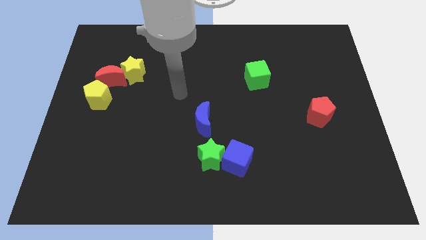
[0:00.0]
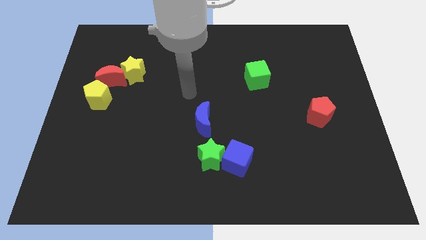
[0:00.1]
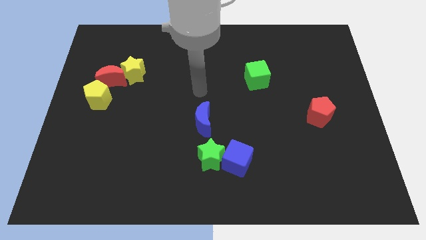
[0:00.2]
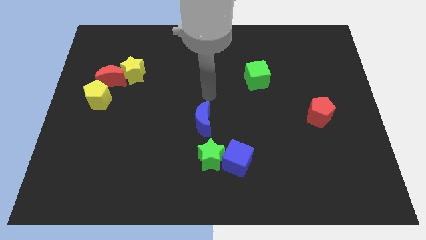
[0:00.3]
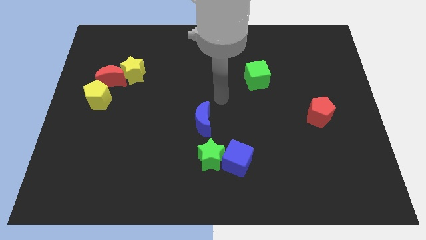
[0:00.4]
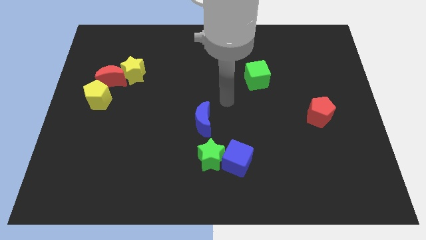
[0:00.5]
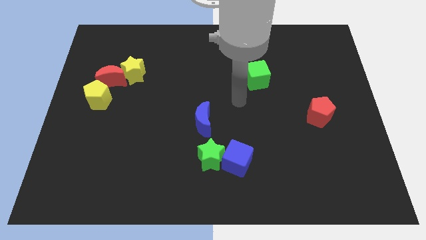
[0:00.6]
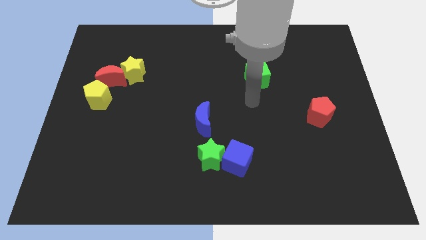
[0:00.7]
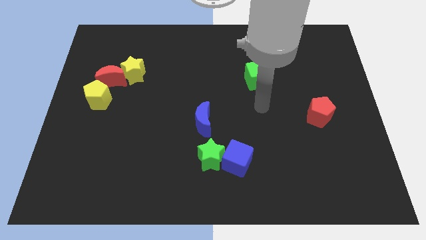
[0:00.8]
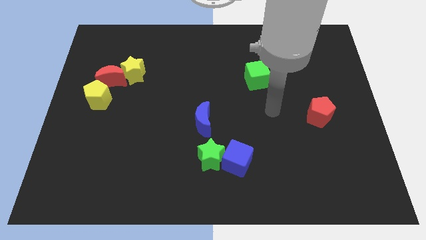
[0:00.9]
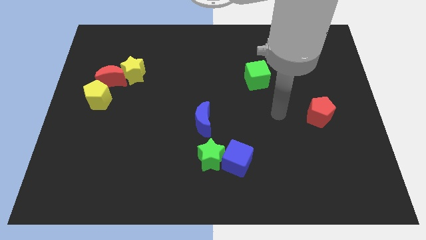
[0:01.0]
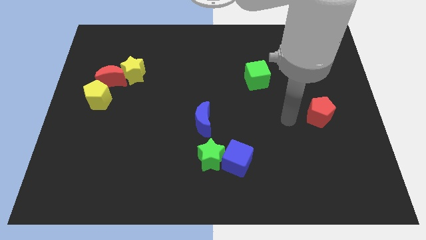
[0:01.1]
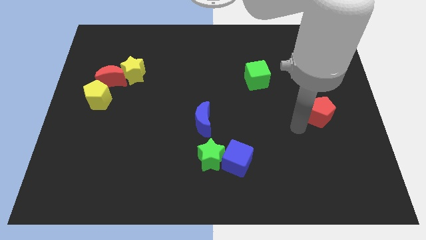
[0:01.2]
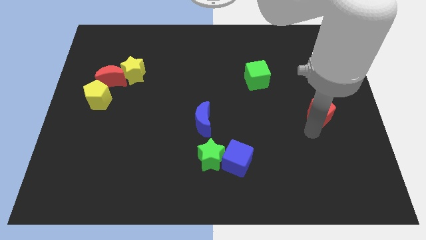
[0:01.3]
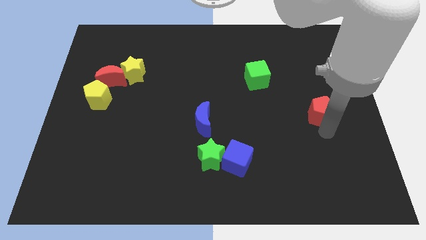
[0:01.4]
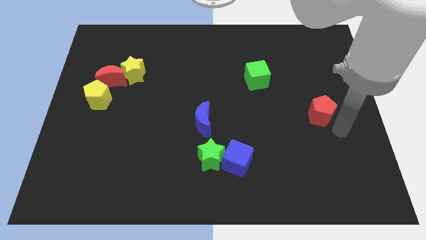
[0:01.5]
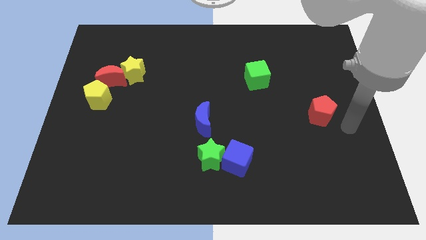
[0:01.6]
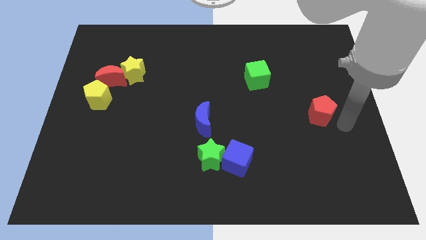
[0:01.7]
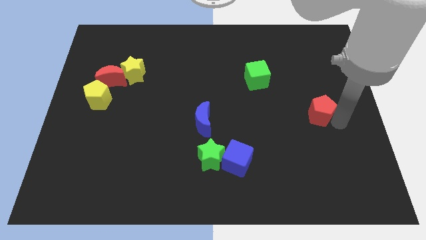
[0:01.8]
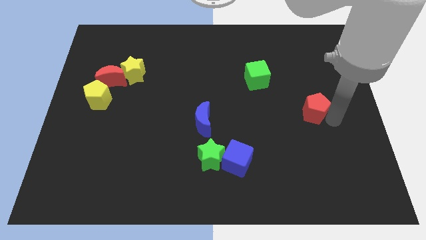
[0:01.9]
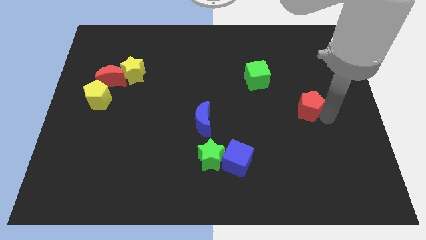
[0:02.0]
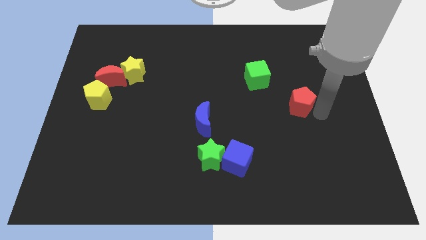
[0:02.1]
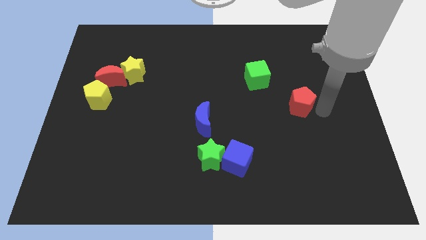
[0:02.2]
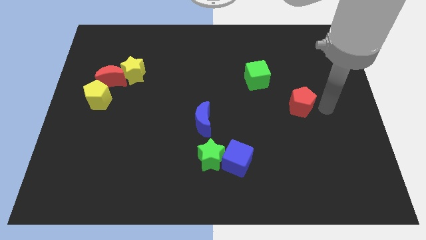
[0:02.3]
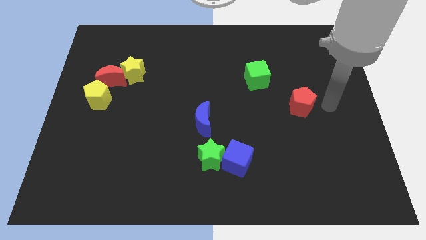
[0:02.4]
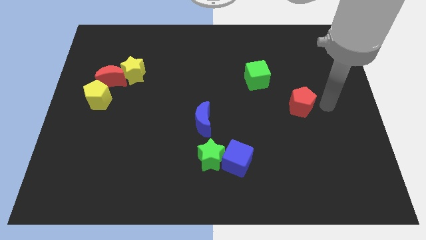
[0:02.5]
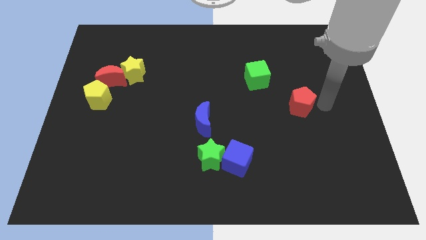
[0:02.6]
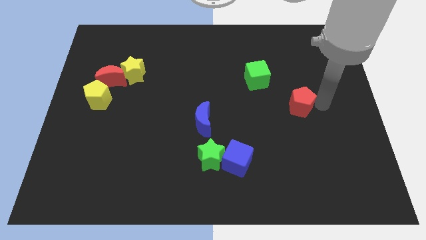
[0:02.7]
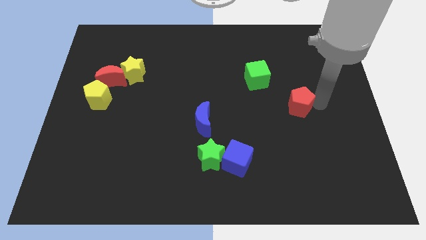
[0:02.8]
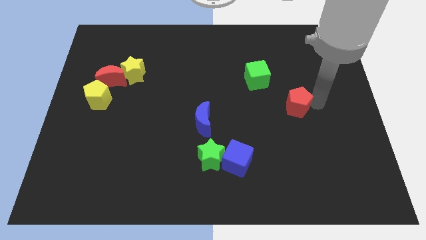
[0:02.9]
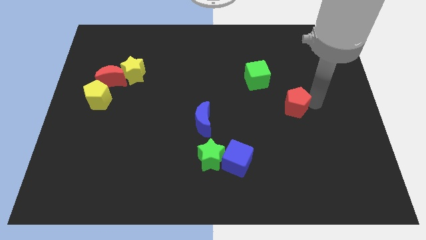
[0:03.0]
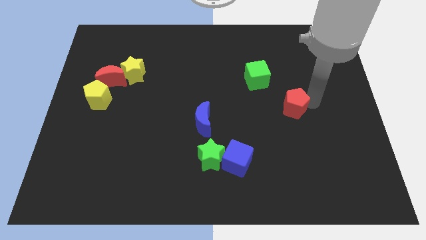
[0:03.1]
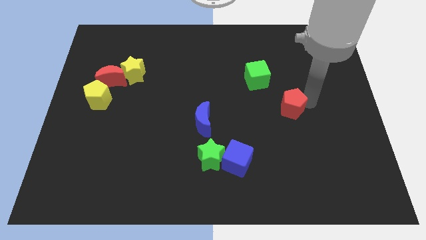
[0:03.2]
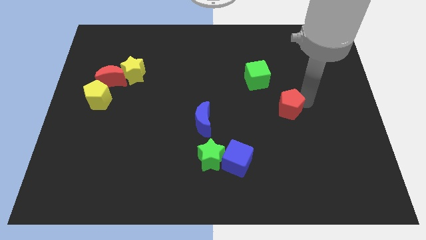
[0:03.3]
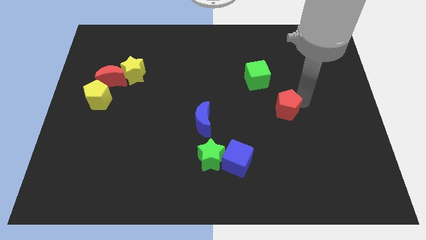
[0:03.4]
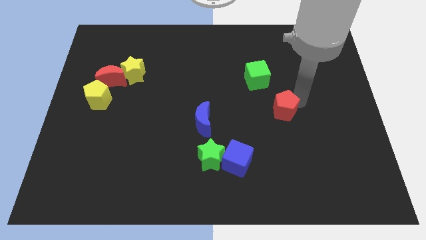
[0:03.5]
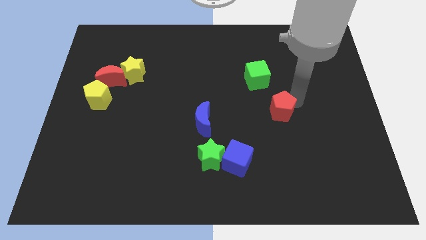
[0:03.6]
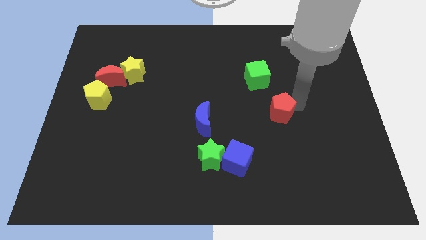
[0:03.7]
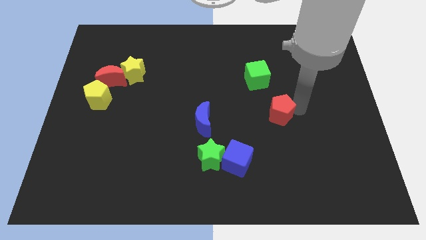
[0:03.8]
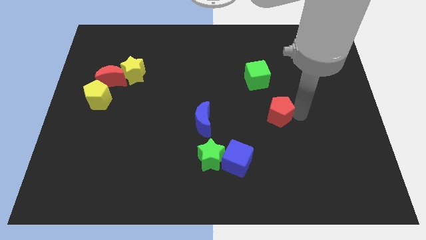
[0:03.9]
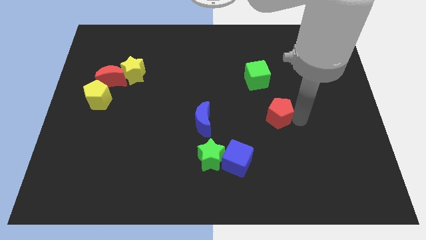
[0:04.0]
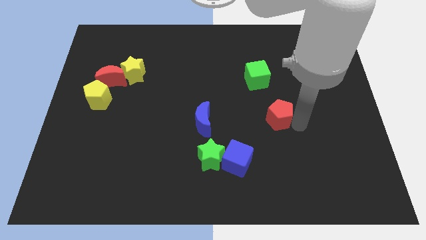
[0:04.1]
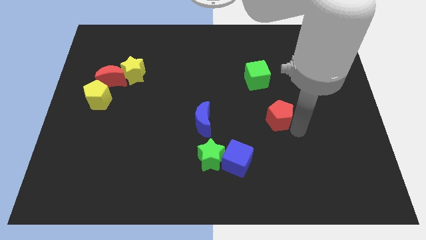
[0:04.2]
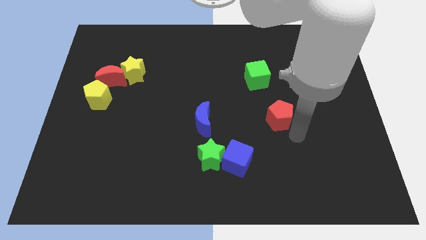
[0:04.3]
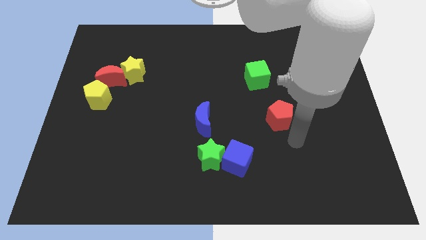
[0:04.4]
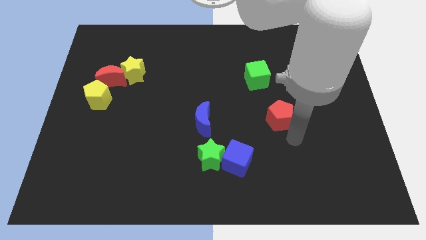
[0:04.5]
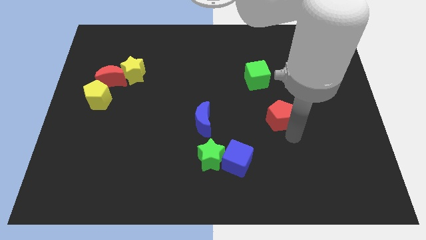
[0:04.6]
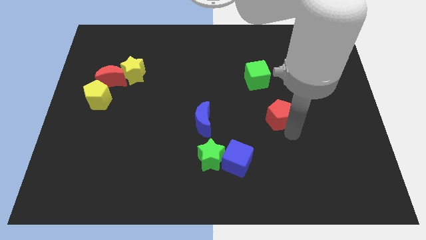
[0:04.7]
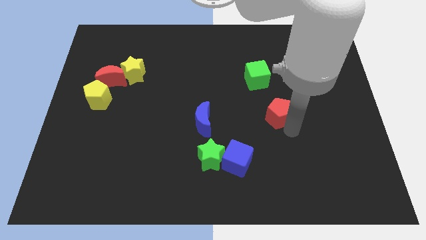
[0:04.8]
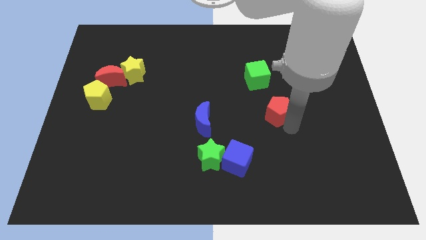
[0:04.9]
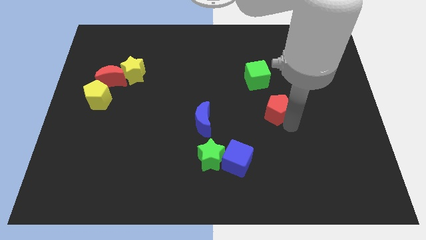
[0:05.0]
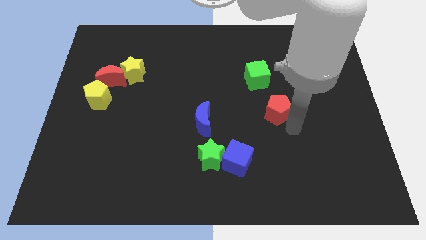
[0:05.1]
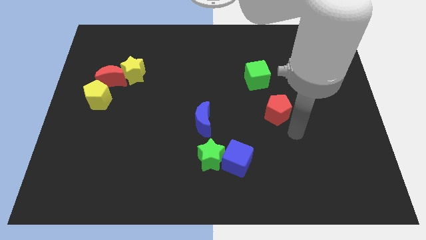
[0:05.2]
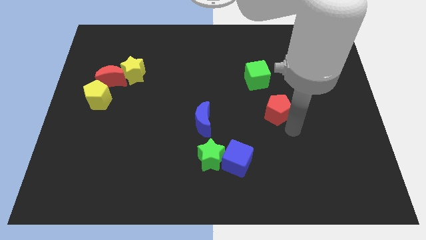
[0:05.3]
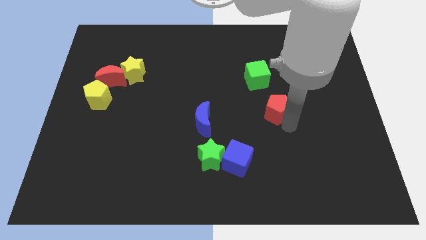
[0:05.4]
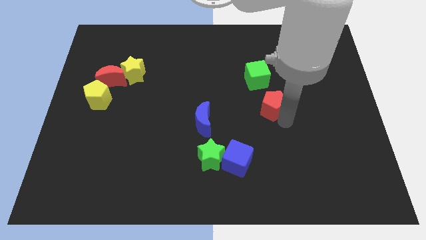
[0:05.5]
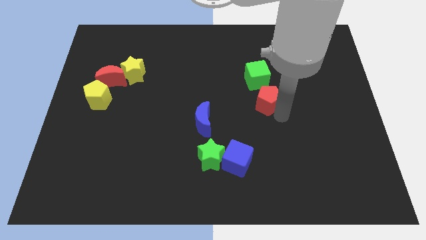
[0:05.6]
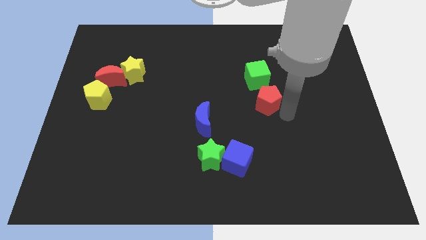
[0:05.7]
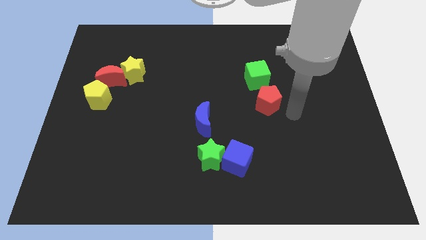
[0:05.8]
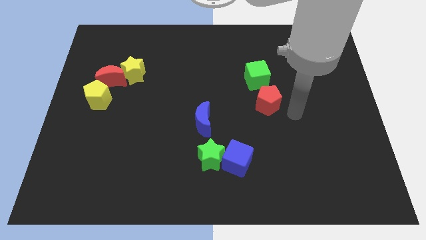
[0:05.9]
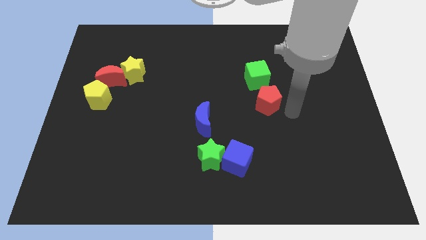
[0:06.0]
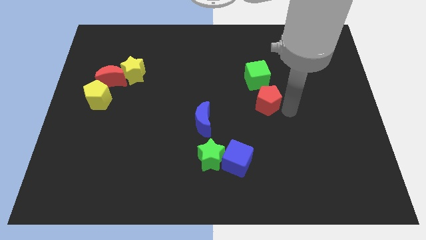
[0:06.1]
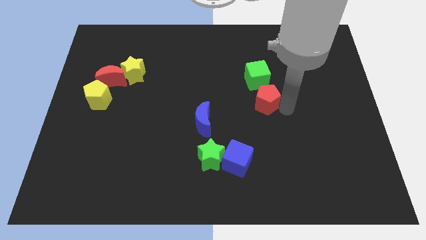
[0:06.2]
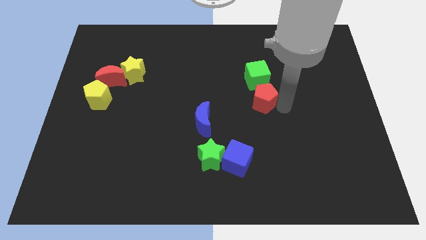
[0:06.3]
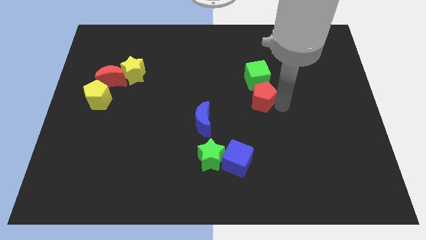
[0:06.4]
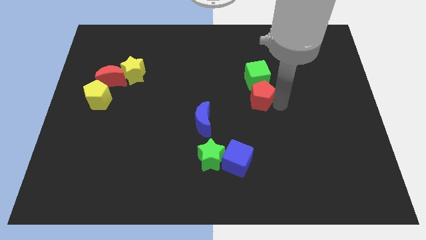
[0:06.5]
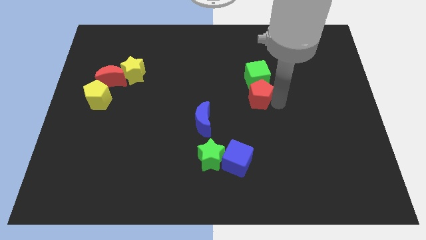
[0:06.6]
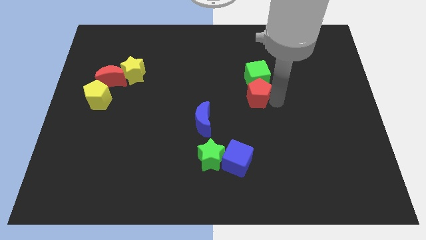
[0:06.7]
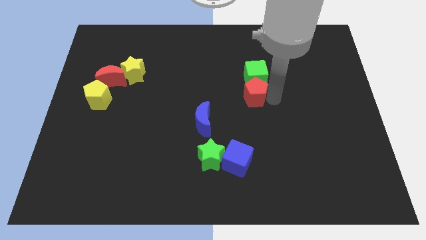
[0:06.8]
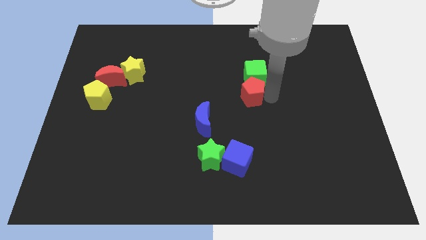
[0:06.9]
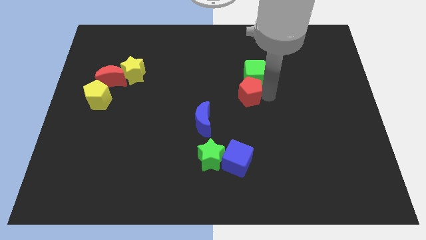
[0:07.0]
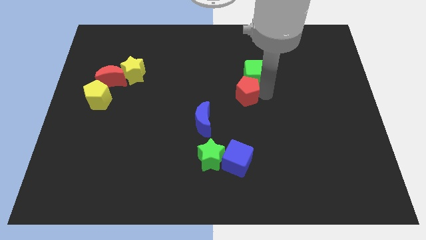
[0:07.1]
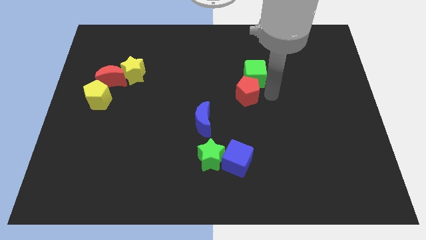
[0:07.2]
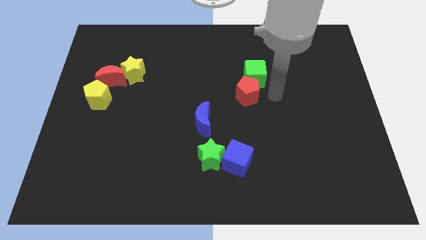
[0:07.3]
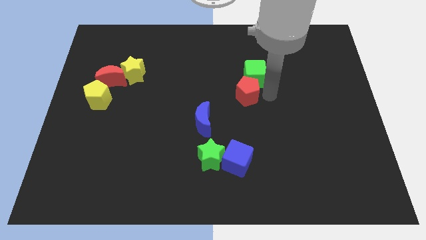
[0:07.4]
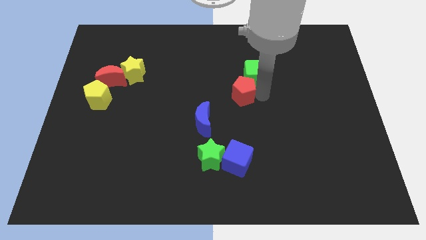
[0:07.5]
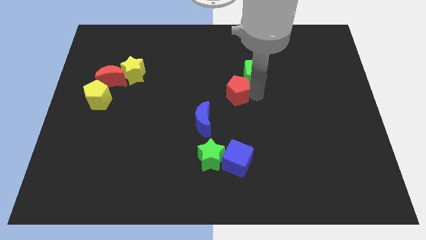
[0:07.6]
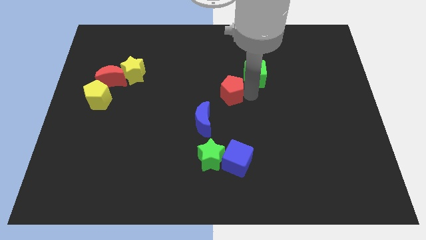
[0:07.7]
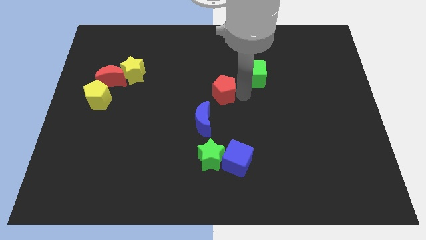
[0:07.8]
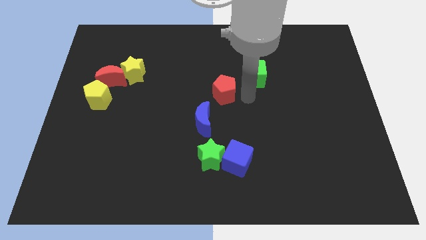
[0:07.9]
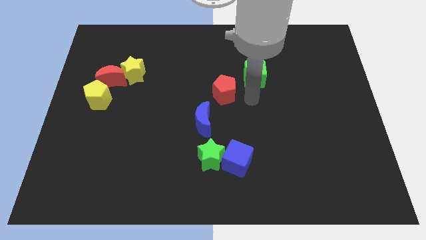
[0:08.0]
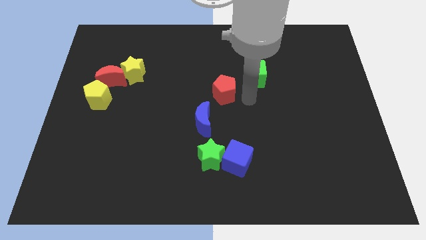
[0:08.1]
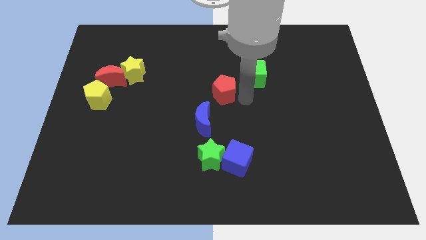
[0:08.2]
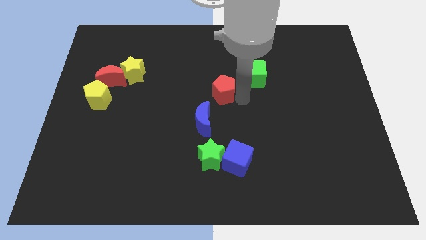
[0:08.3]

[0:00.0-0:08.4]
slide the red pentagon above the blue moon
